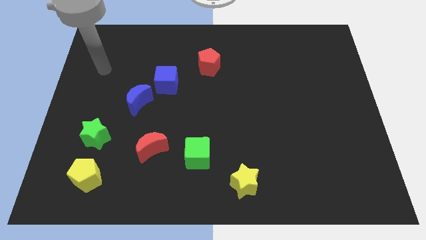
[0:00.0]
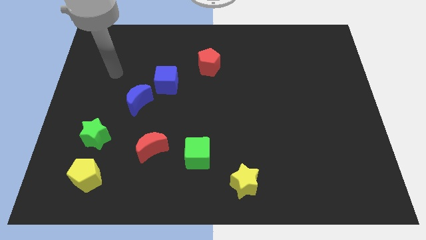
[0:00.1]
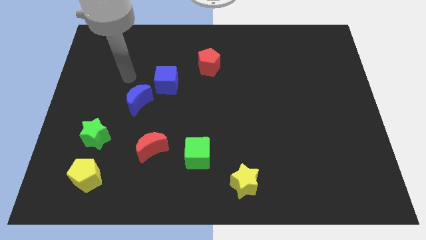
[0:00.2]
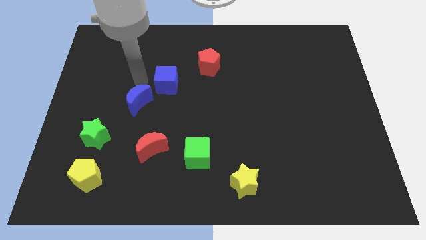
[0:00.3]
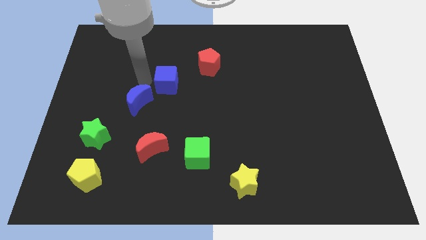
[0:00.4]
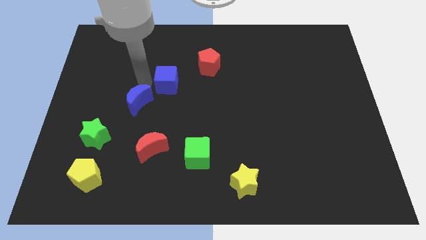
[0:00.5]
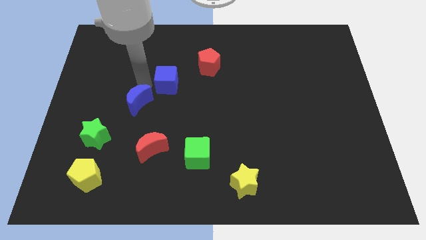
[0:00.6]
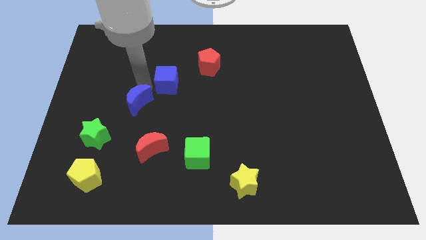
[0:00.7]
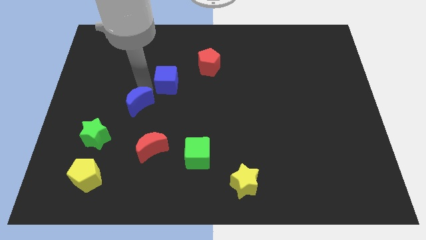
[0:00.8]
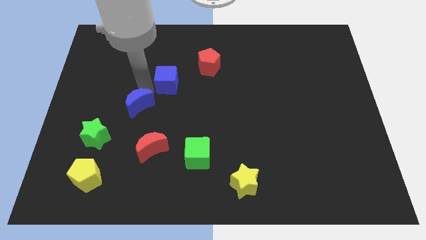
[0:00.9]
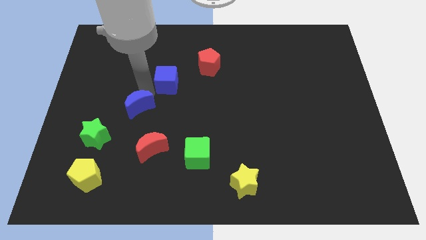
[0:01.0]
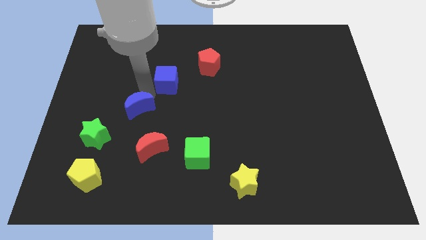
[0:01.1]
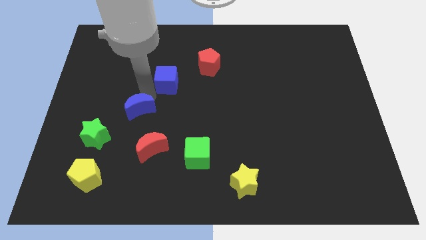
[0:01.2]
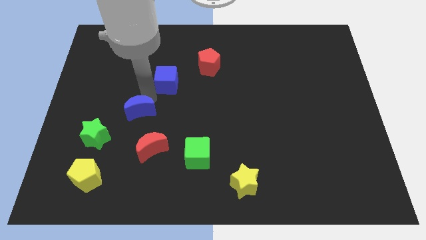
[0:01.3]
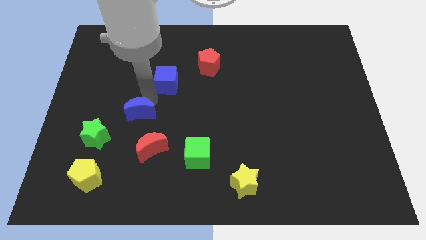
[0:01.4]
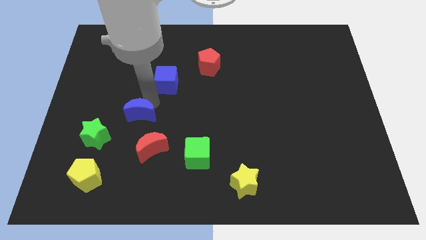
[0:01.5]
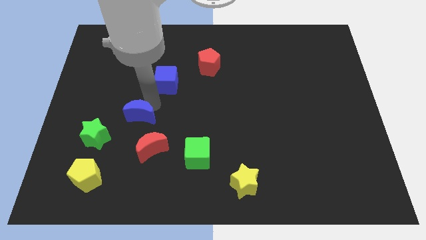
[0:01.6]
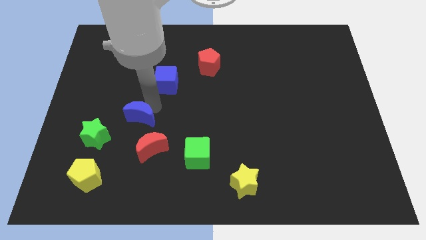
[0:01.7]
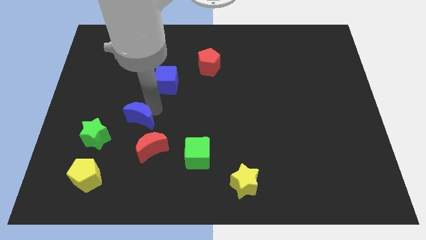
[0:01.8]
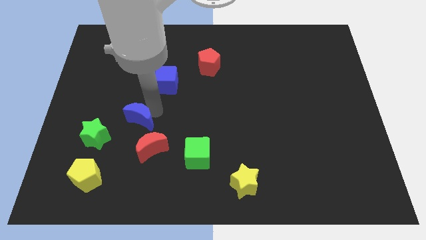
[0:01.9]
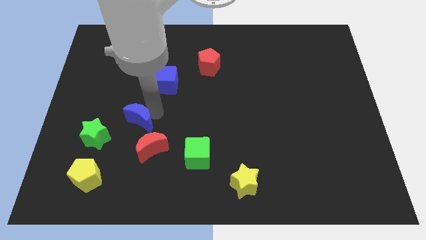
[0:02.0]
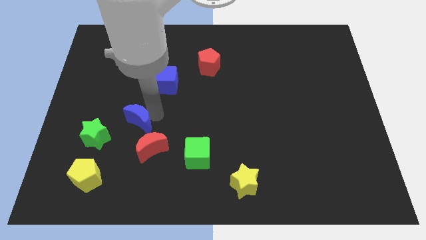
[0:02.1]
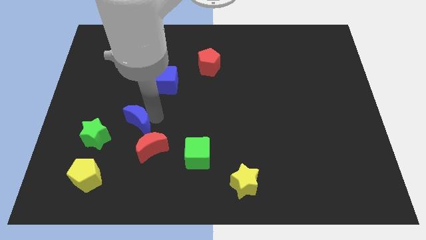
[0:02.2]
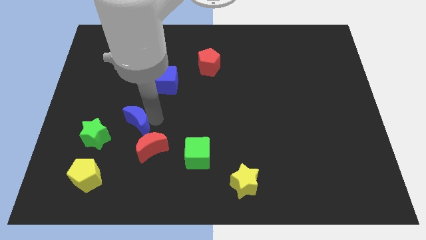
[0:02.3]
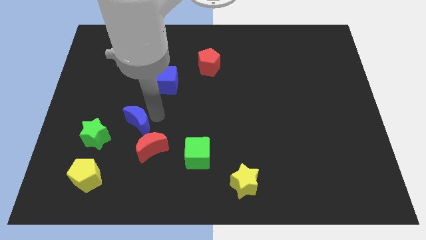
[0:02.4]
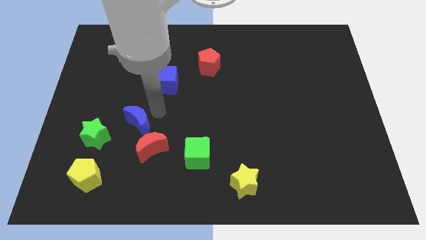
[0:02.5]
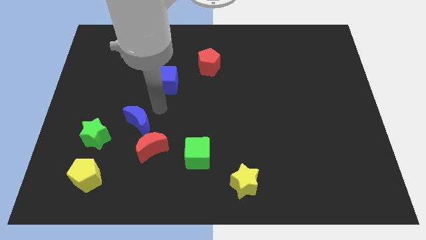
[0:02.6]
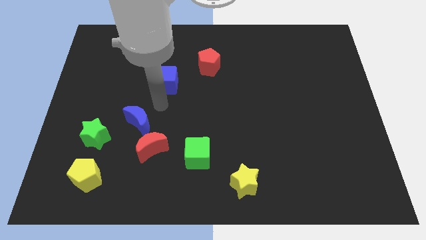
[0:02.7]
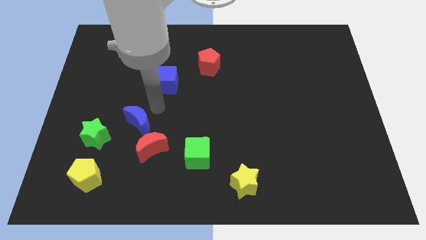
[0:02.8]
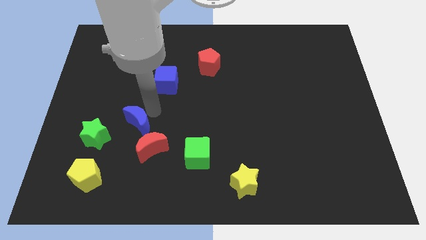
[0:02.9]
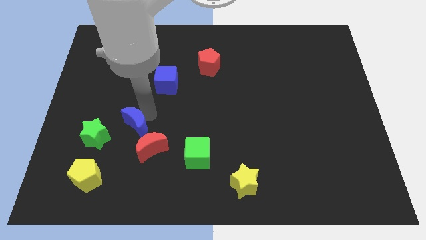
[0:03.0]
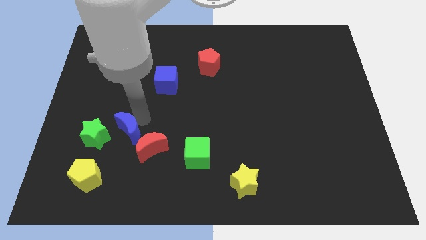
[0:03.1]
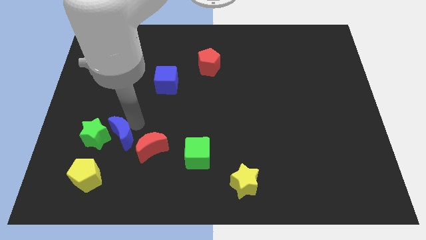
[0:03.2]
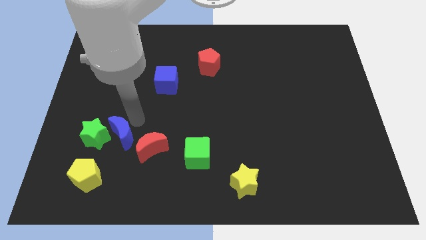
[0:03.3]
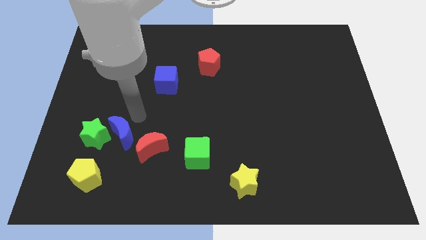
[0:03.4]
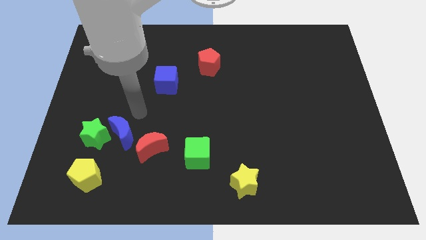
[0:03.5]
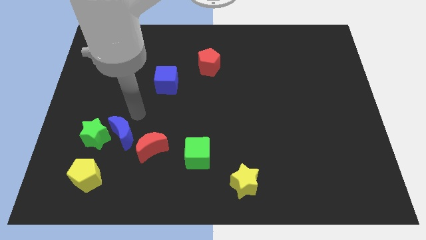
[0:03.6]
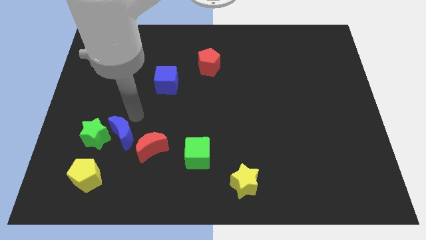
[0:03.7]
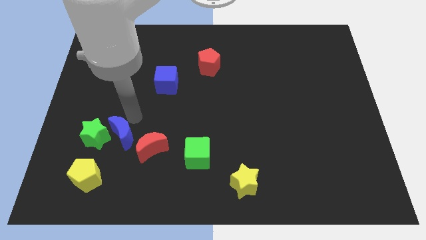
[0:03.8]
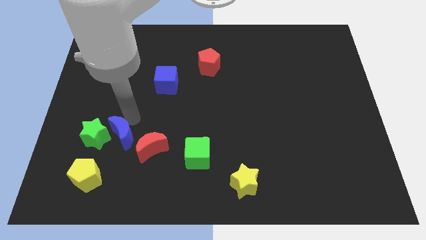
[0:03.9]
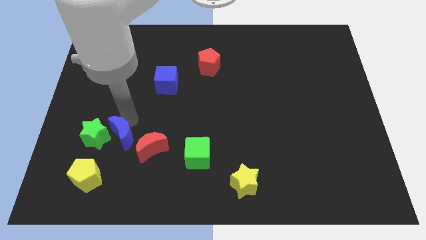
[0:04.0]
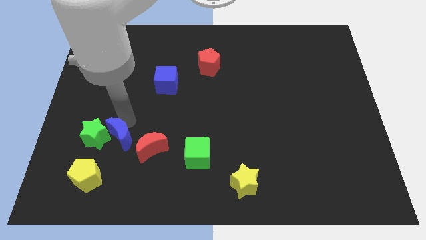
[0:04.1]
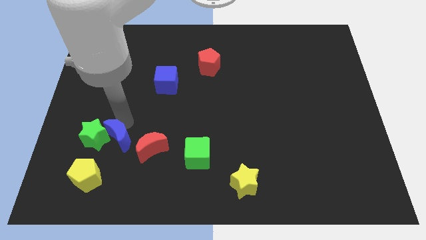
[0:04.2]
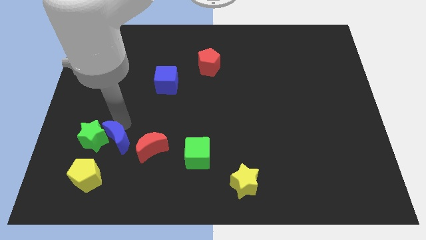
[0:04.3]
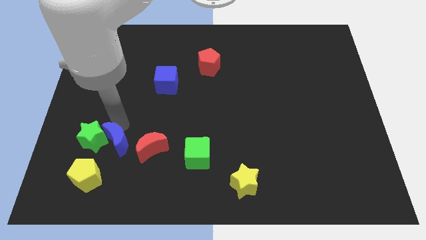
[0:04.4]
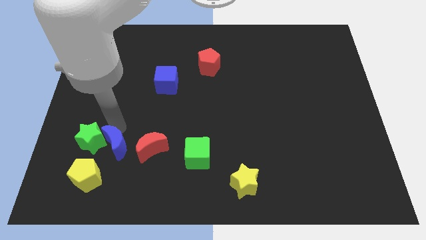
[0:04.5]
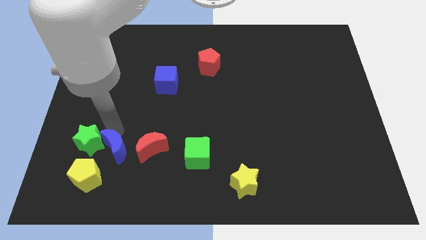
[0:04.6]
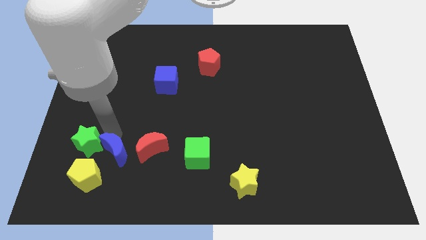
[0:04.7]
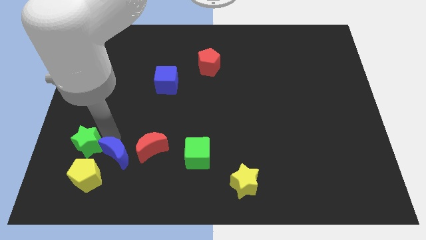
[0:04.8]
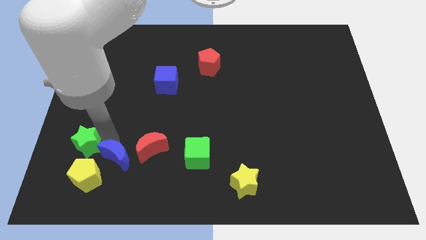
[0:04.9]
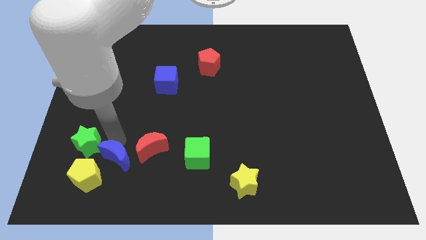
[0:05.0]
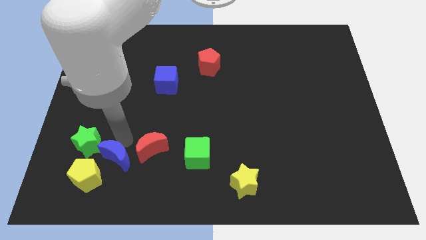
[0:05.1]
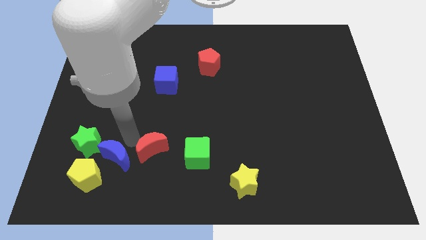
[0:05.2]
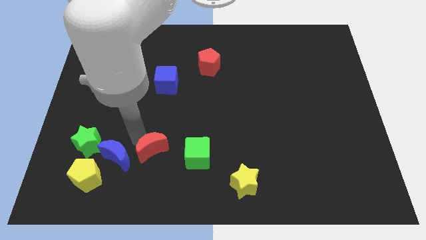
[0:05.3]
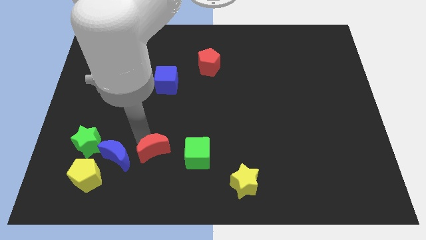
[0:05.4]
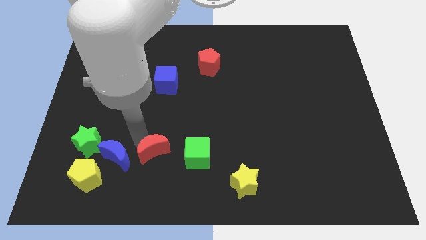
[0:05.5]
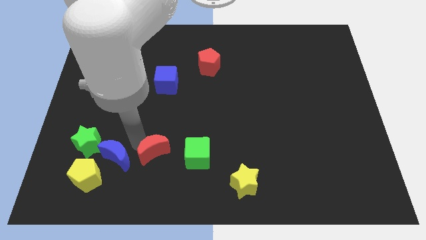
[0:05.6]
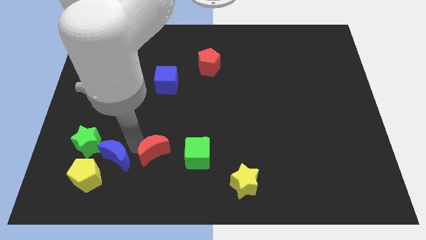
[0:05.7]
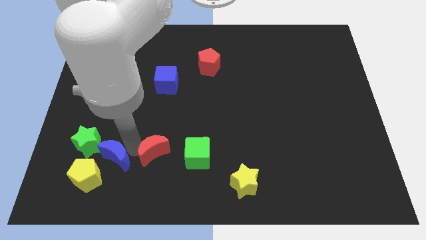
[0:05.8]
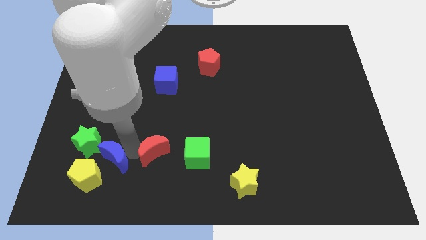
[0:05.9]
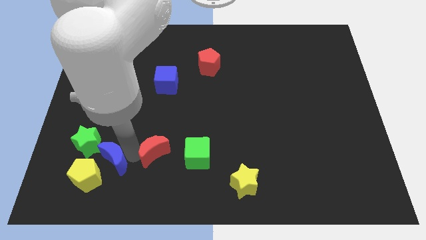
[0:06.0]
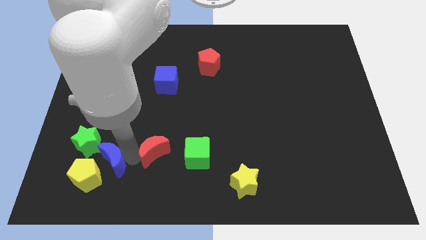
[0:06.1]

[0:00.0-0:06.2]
move the blue moon towards the yellow pentagon

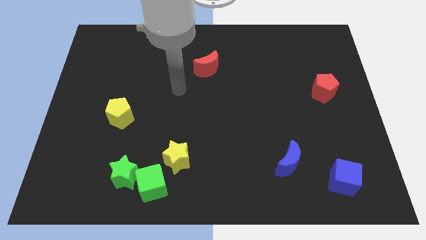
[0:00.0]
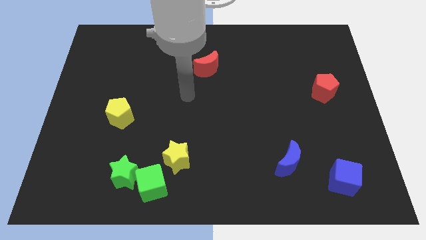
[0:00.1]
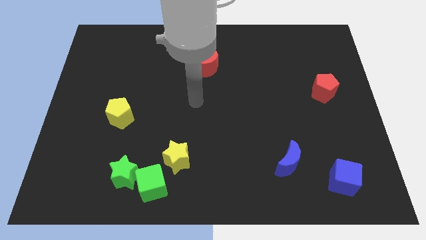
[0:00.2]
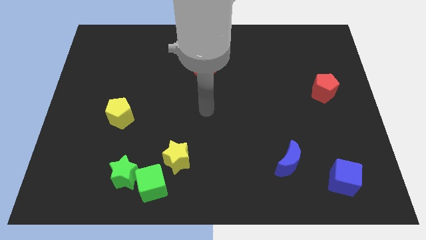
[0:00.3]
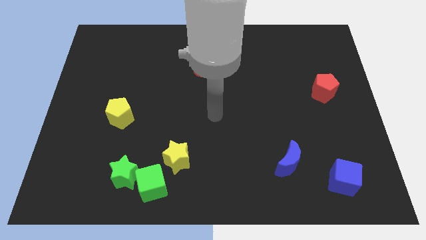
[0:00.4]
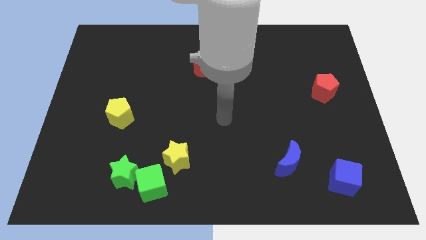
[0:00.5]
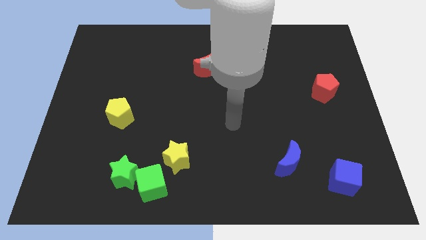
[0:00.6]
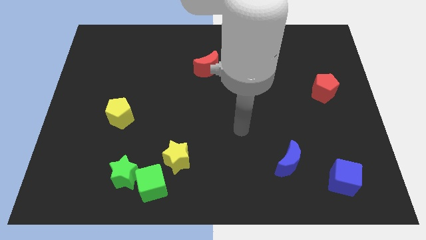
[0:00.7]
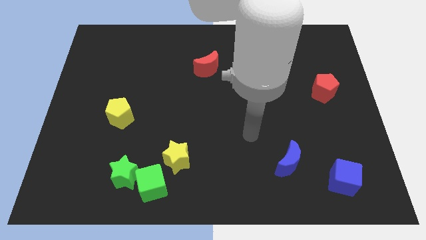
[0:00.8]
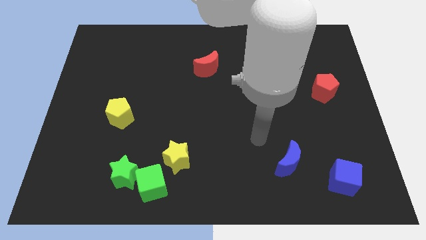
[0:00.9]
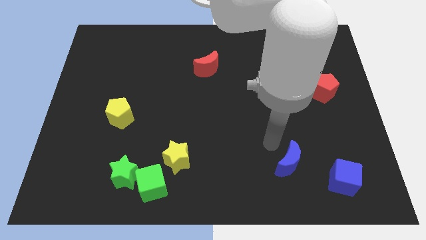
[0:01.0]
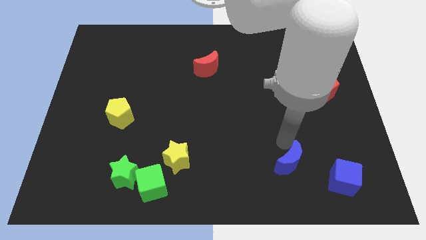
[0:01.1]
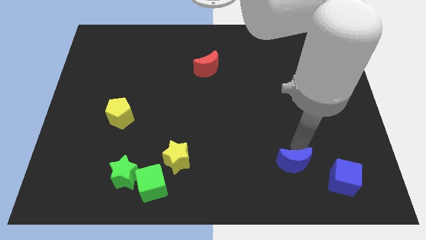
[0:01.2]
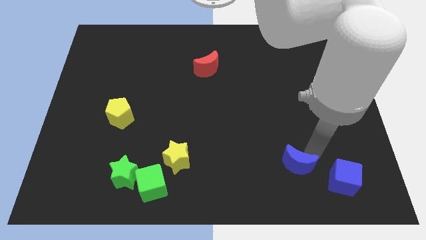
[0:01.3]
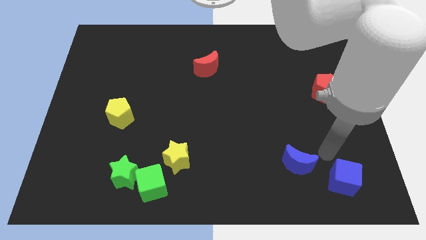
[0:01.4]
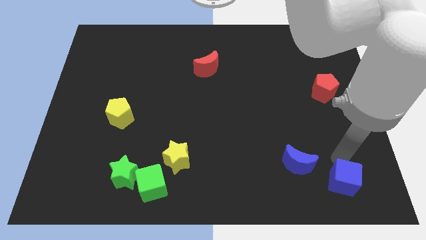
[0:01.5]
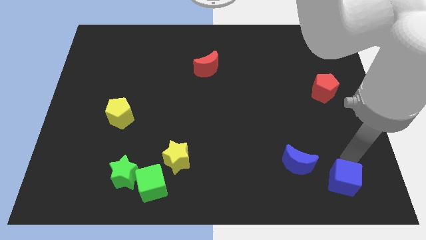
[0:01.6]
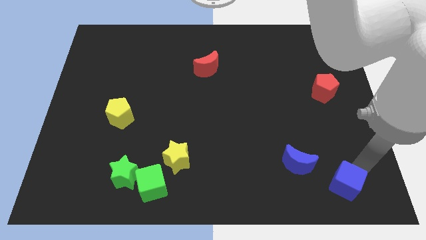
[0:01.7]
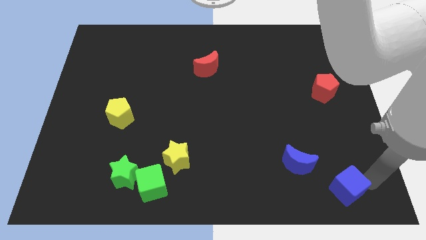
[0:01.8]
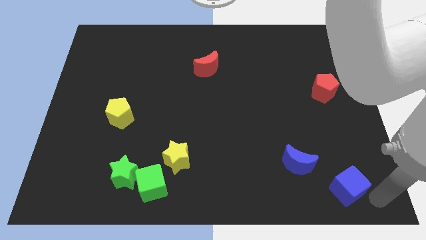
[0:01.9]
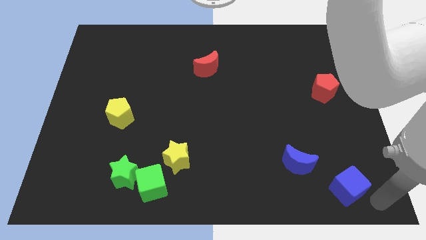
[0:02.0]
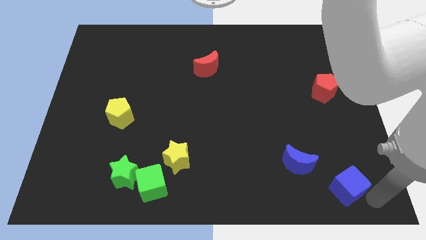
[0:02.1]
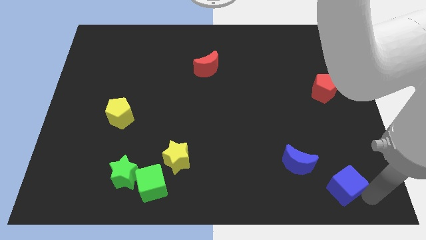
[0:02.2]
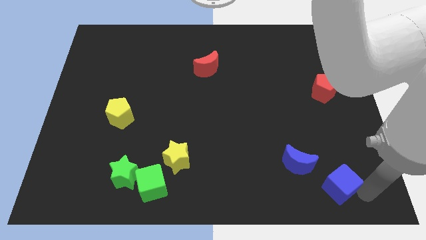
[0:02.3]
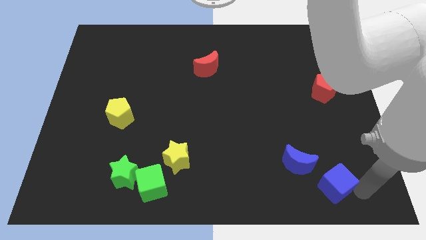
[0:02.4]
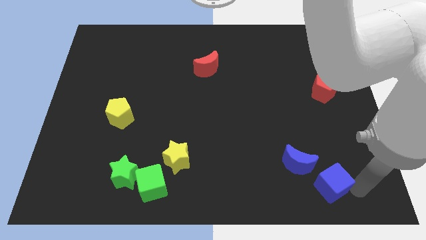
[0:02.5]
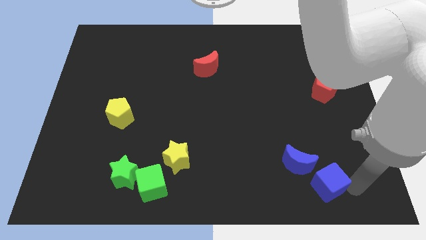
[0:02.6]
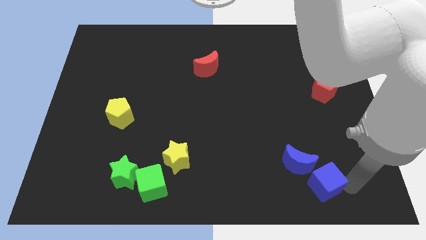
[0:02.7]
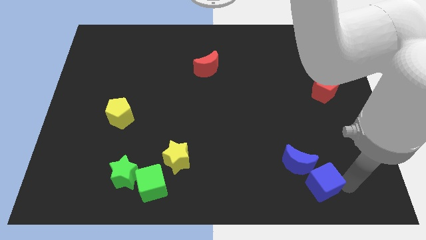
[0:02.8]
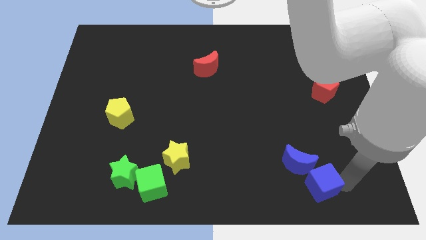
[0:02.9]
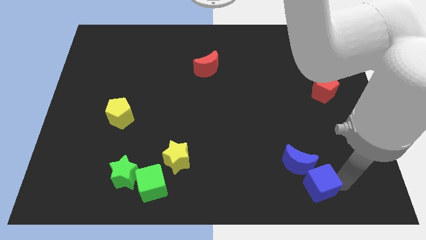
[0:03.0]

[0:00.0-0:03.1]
slide the blue cube next to the blue moon
